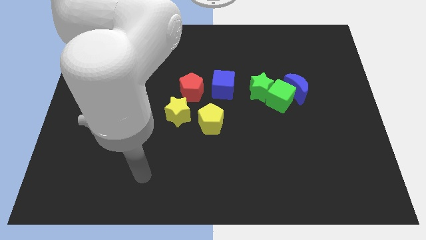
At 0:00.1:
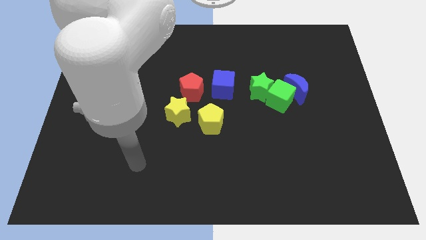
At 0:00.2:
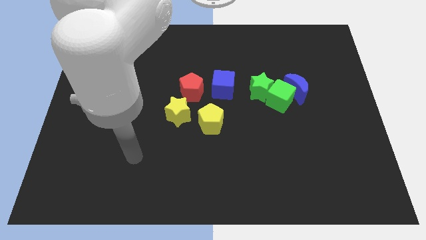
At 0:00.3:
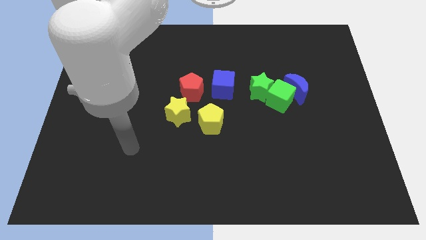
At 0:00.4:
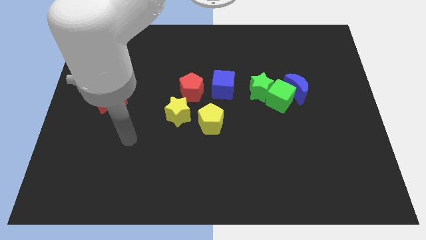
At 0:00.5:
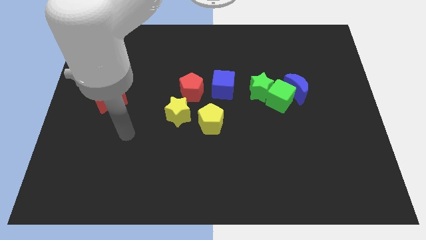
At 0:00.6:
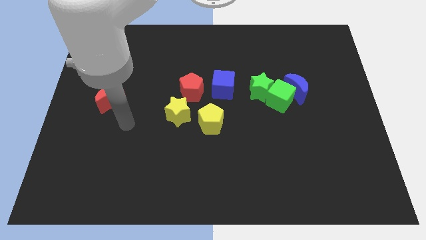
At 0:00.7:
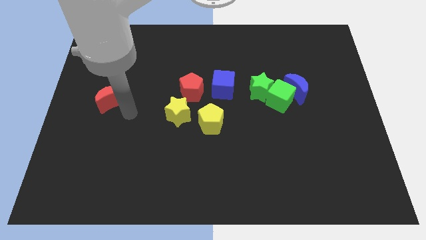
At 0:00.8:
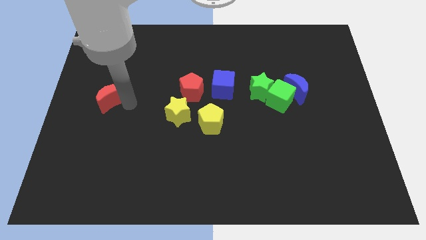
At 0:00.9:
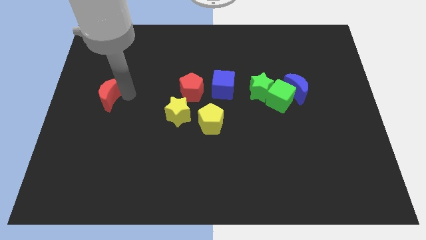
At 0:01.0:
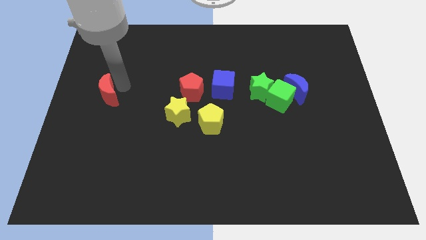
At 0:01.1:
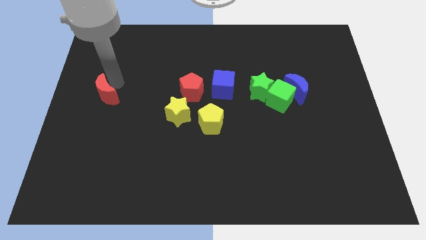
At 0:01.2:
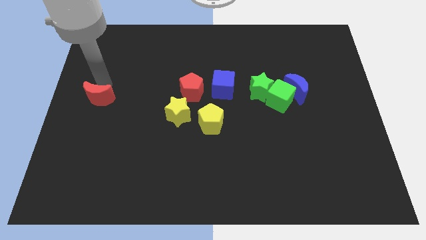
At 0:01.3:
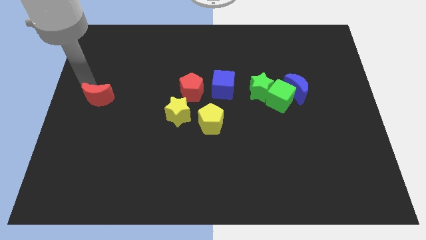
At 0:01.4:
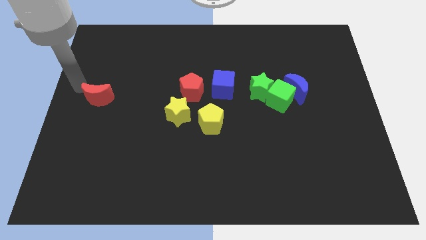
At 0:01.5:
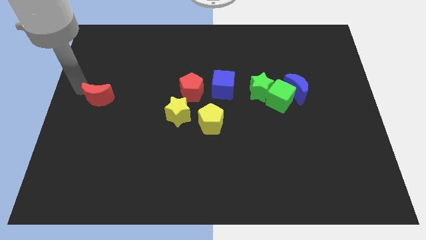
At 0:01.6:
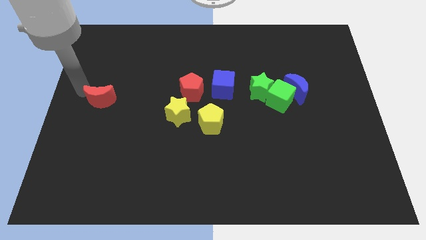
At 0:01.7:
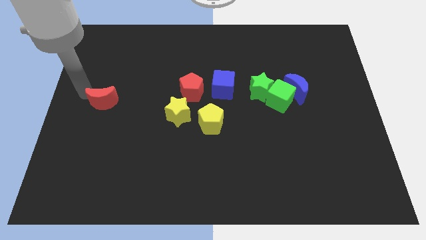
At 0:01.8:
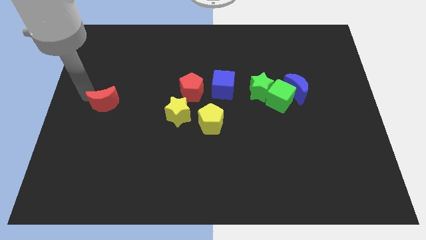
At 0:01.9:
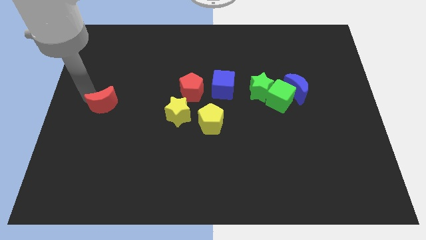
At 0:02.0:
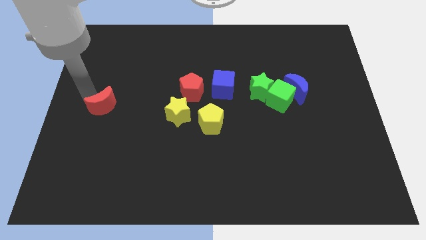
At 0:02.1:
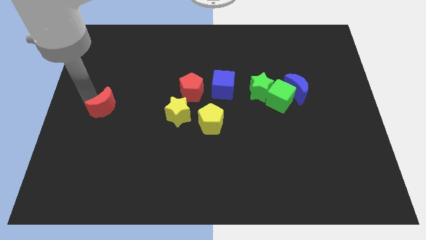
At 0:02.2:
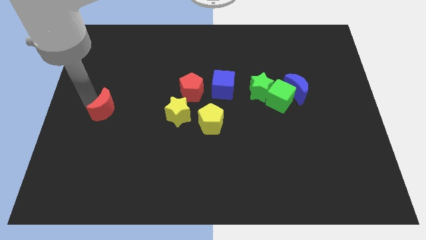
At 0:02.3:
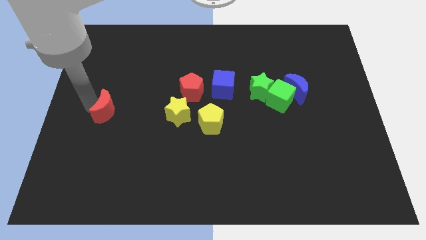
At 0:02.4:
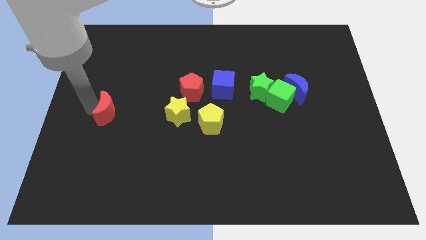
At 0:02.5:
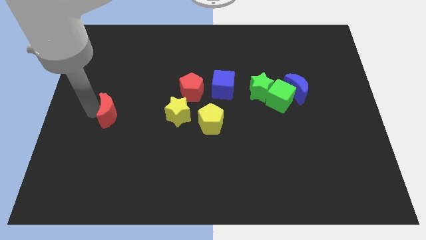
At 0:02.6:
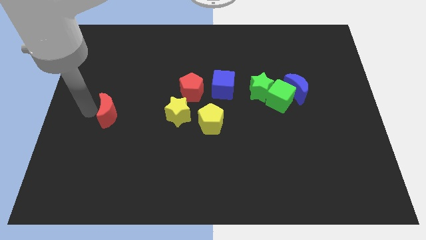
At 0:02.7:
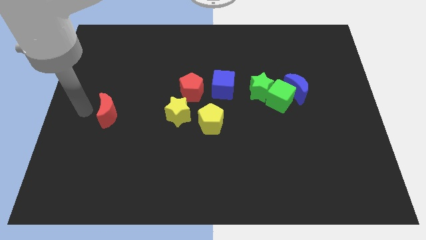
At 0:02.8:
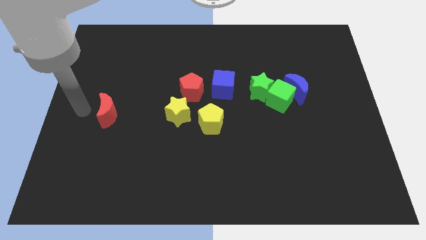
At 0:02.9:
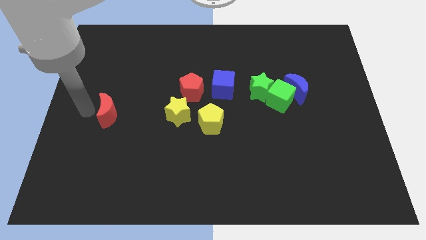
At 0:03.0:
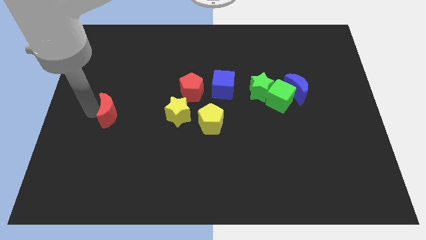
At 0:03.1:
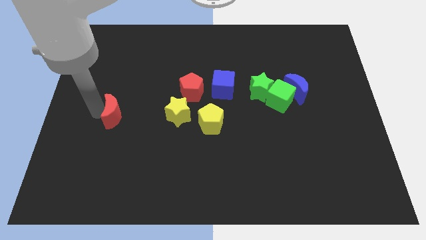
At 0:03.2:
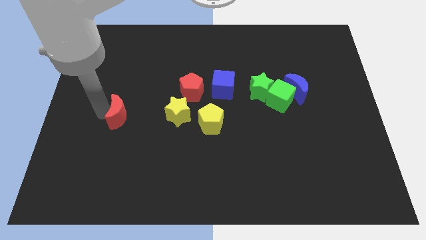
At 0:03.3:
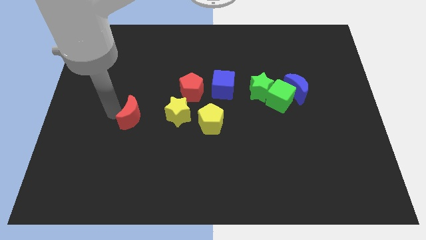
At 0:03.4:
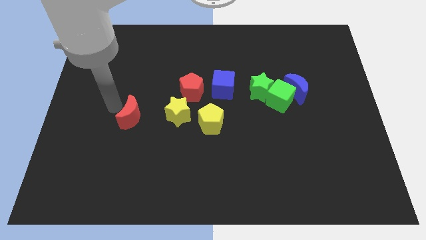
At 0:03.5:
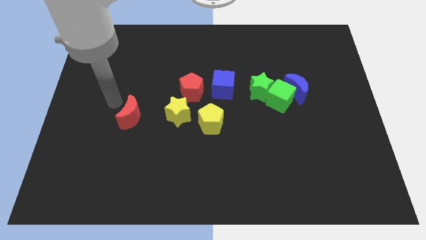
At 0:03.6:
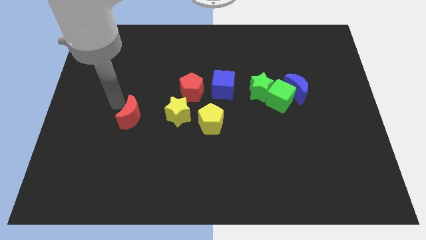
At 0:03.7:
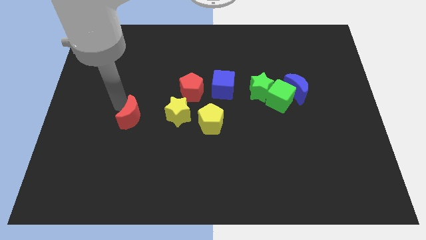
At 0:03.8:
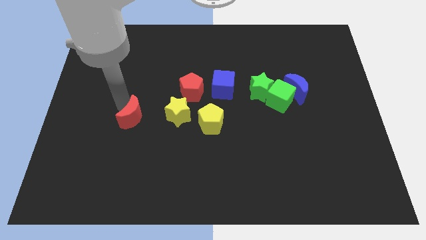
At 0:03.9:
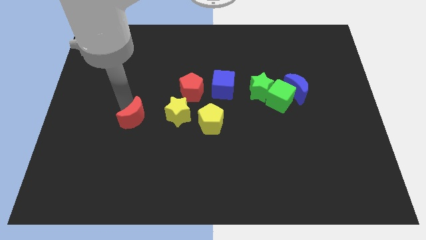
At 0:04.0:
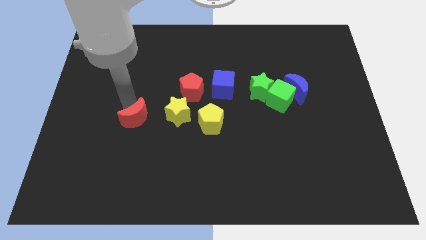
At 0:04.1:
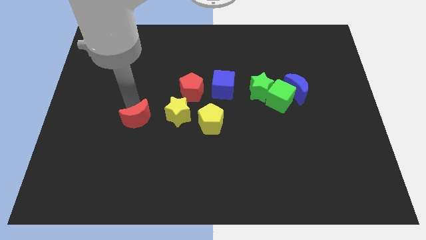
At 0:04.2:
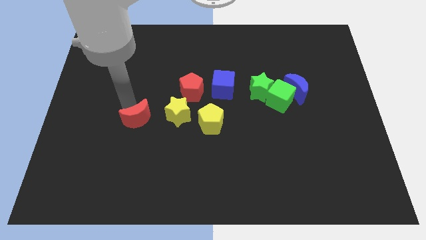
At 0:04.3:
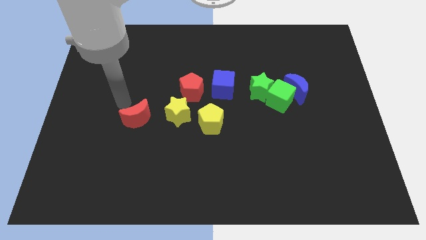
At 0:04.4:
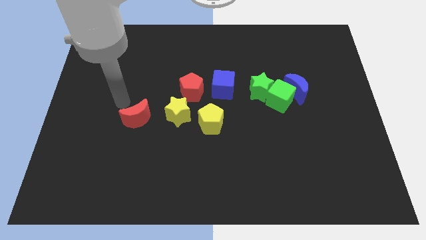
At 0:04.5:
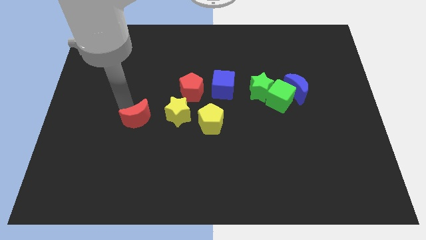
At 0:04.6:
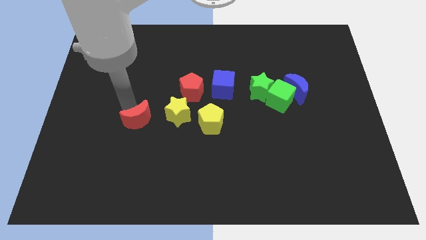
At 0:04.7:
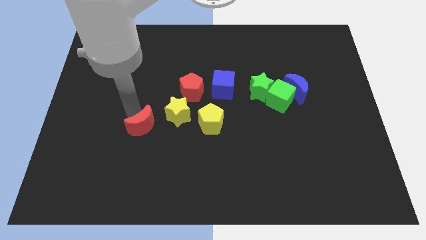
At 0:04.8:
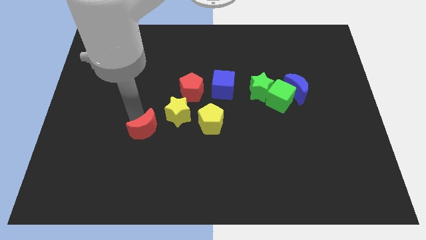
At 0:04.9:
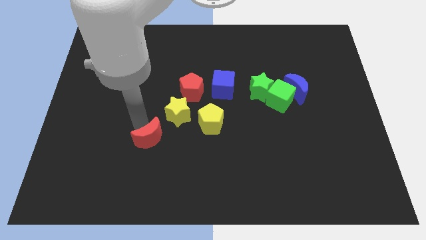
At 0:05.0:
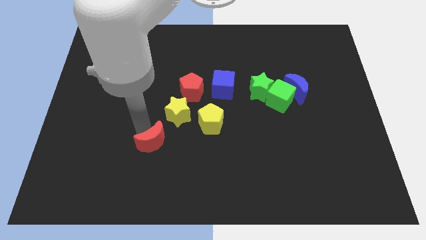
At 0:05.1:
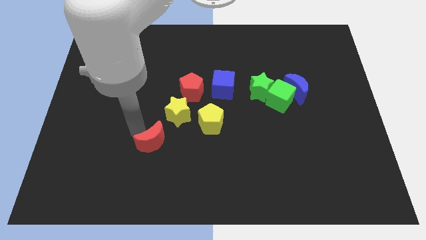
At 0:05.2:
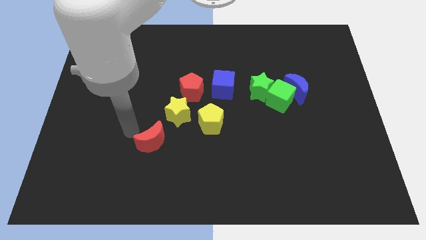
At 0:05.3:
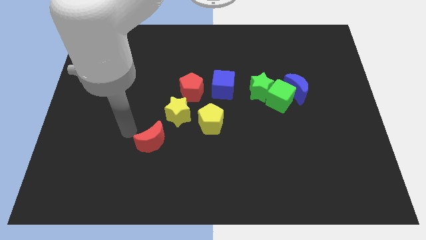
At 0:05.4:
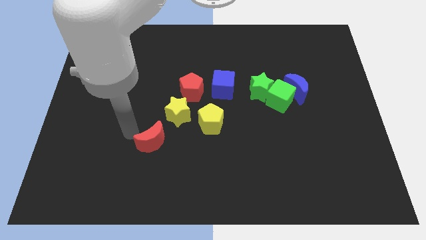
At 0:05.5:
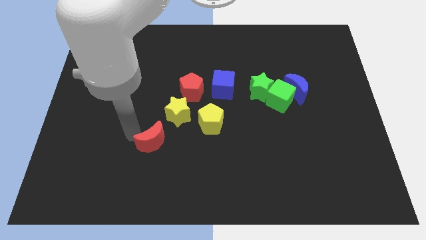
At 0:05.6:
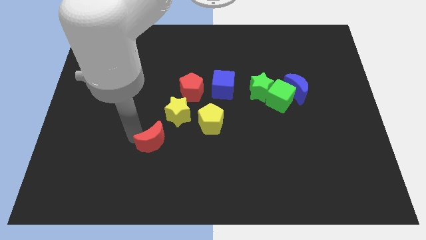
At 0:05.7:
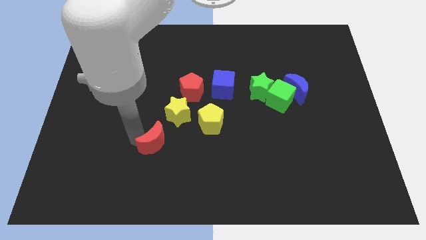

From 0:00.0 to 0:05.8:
put the red moon below the yellow star

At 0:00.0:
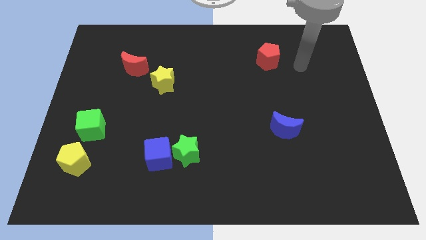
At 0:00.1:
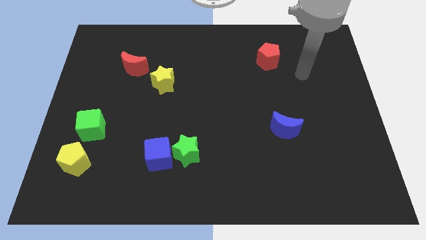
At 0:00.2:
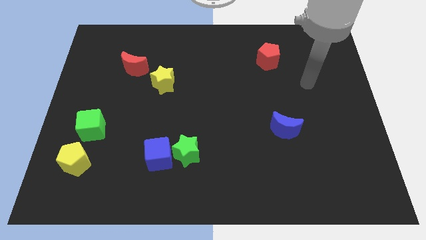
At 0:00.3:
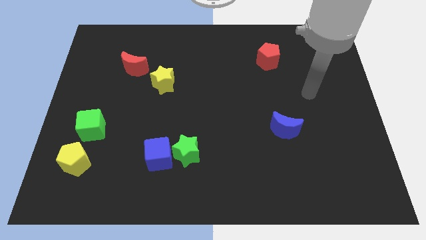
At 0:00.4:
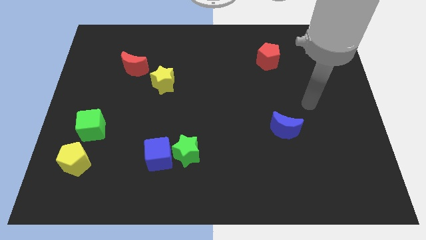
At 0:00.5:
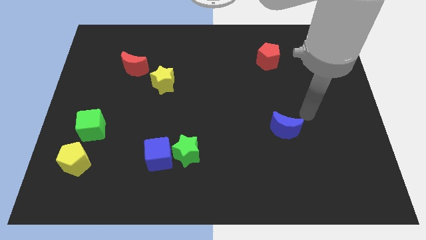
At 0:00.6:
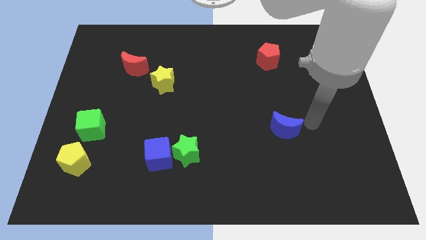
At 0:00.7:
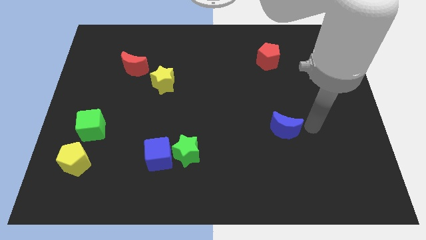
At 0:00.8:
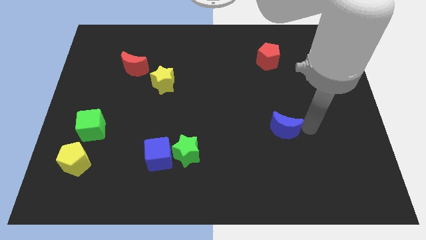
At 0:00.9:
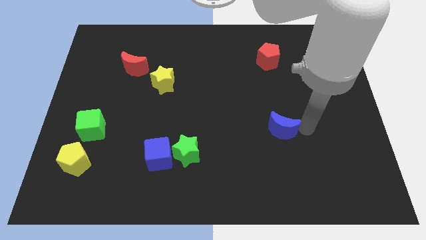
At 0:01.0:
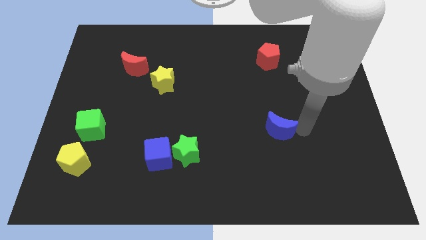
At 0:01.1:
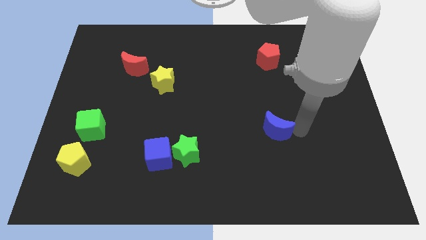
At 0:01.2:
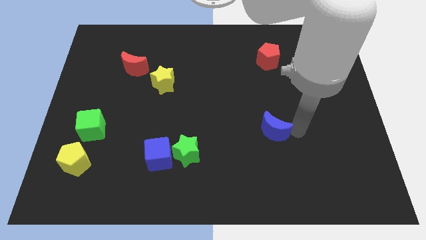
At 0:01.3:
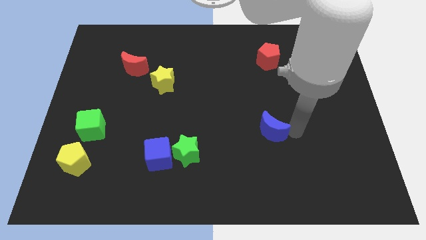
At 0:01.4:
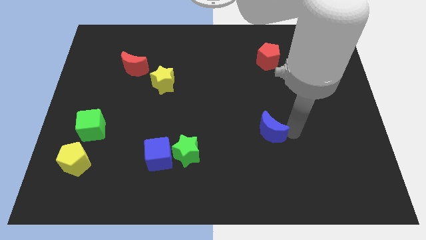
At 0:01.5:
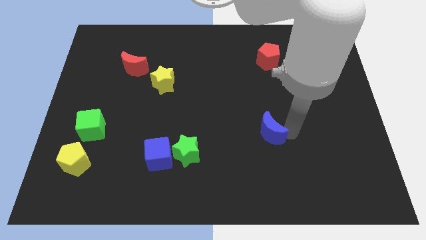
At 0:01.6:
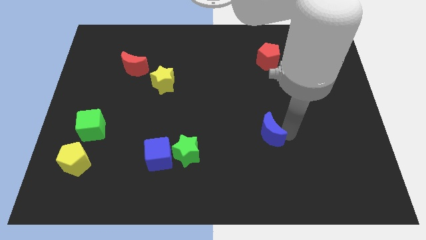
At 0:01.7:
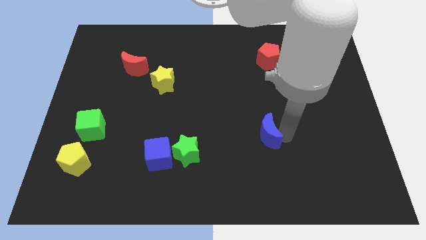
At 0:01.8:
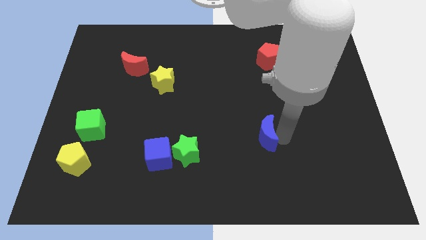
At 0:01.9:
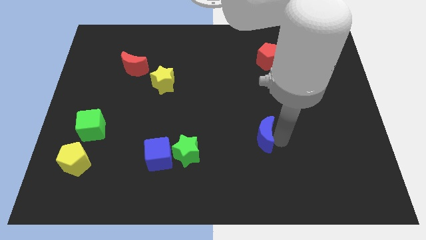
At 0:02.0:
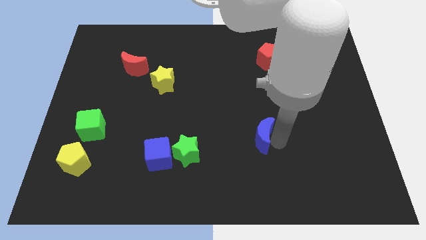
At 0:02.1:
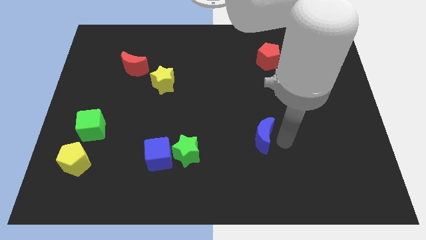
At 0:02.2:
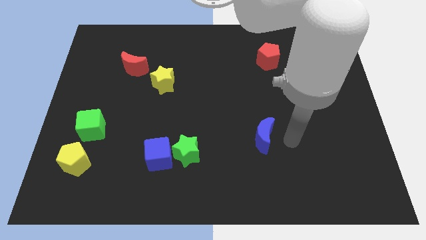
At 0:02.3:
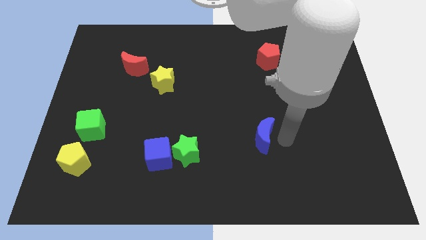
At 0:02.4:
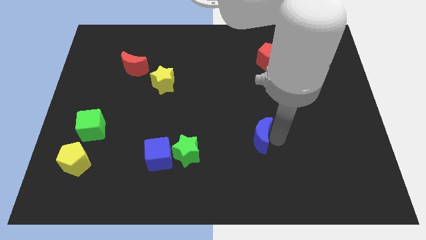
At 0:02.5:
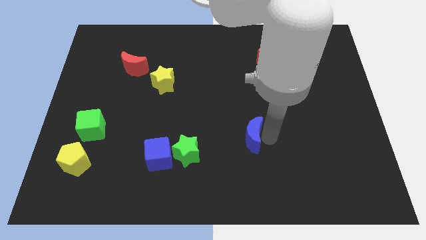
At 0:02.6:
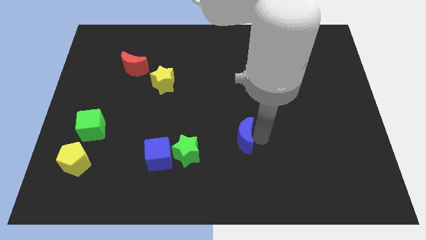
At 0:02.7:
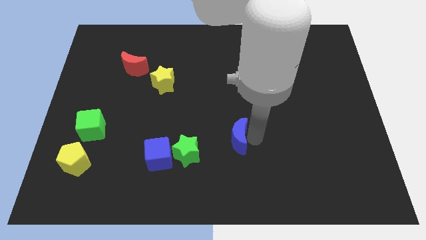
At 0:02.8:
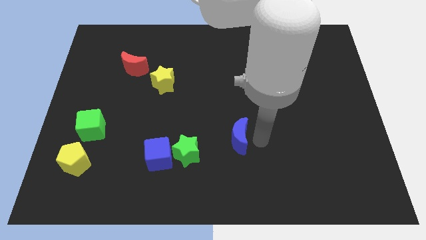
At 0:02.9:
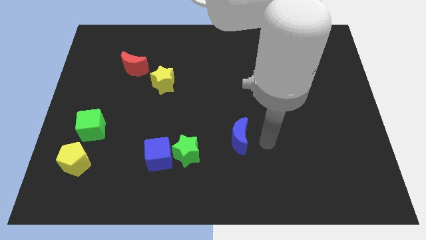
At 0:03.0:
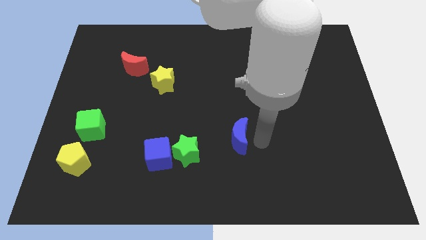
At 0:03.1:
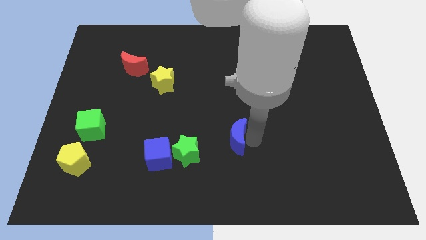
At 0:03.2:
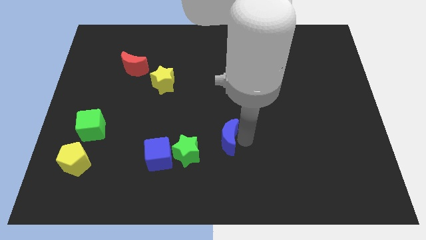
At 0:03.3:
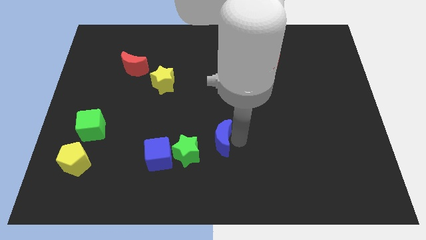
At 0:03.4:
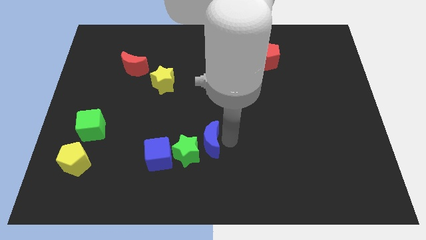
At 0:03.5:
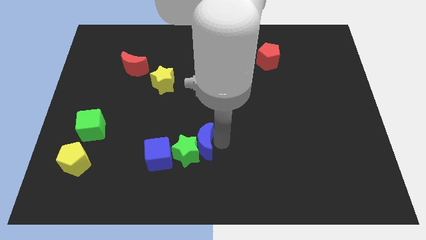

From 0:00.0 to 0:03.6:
move the blue moon to the top right side of the blue cube
